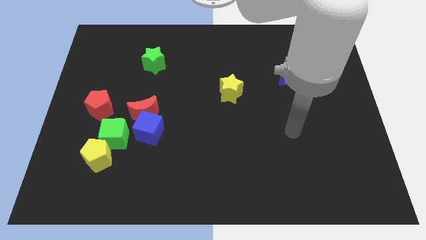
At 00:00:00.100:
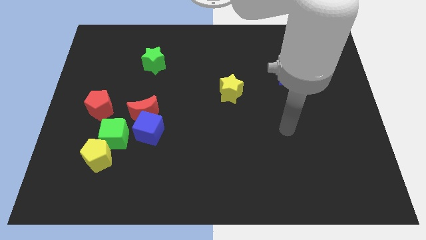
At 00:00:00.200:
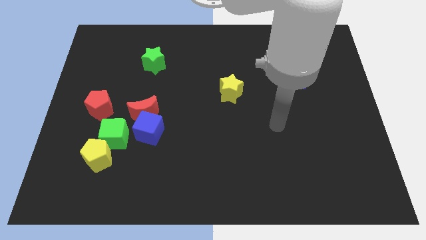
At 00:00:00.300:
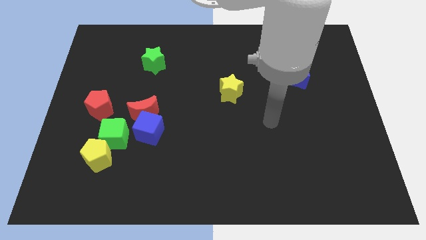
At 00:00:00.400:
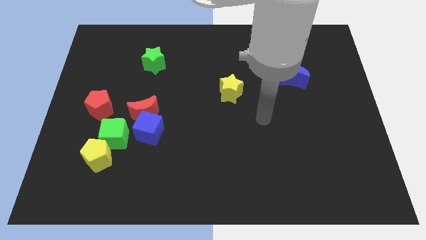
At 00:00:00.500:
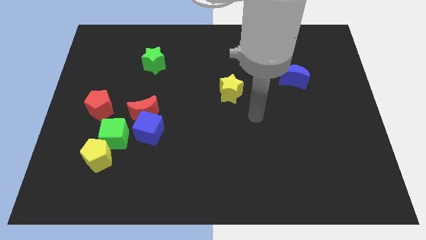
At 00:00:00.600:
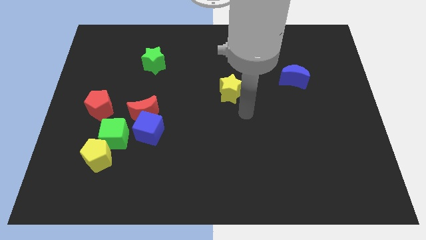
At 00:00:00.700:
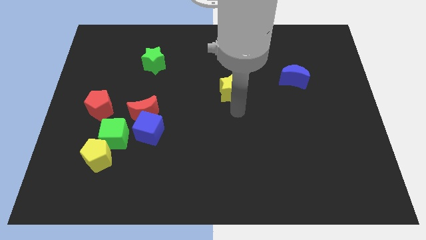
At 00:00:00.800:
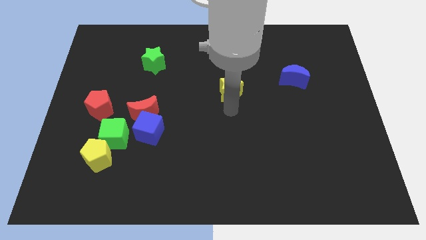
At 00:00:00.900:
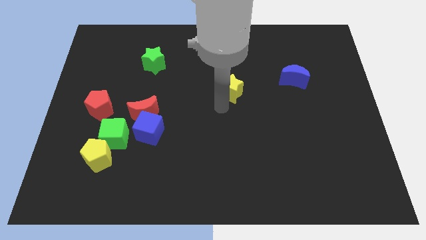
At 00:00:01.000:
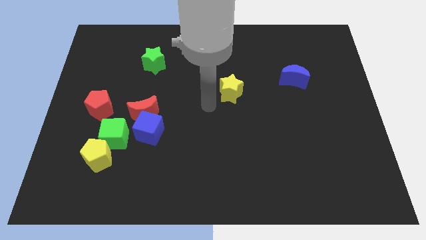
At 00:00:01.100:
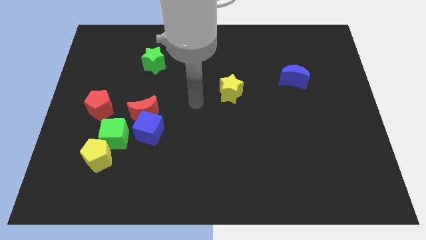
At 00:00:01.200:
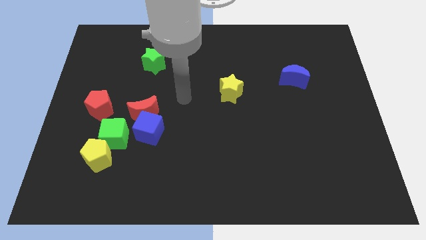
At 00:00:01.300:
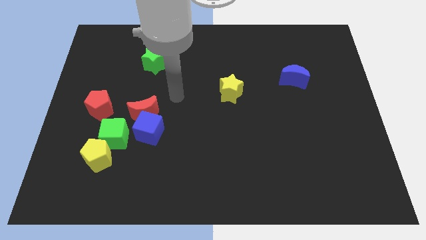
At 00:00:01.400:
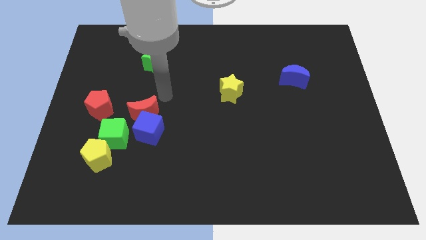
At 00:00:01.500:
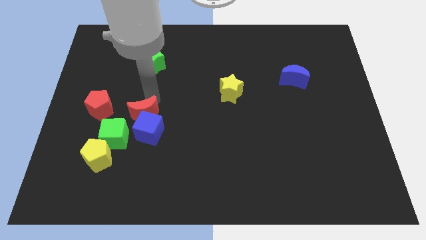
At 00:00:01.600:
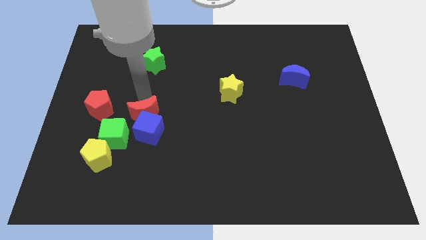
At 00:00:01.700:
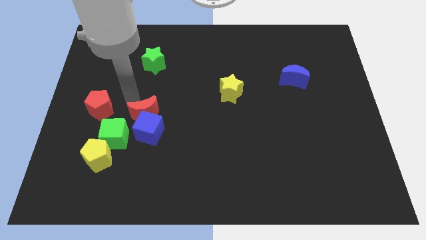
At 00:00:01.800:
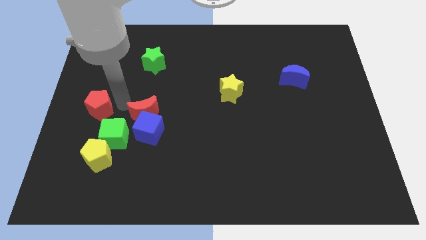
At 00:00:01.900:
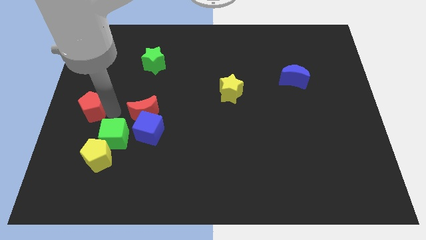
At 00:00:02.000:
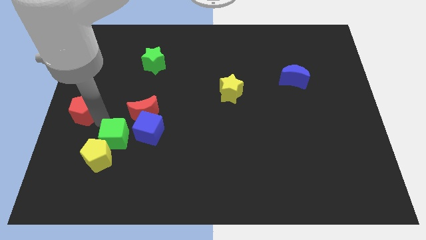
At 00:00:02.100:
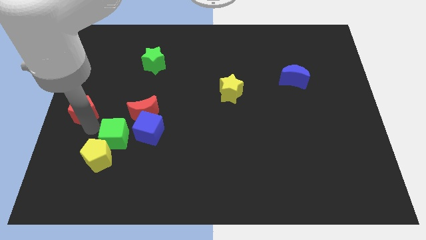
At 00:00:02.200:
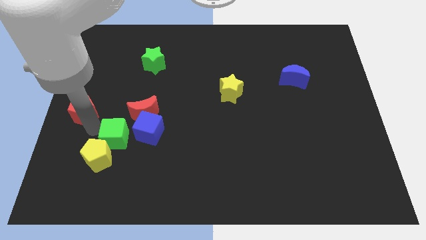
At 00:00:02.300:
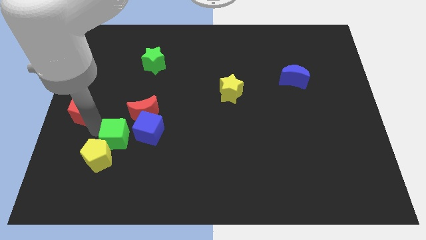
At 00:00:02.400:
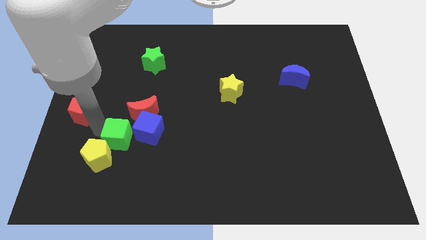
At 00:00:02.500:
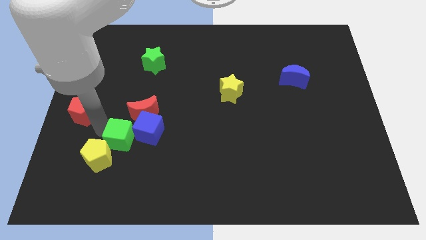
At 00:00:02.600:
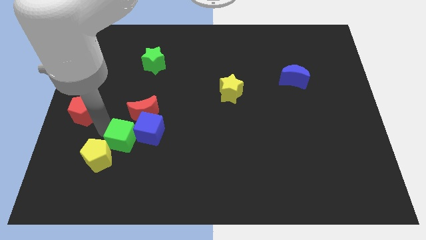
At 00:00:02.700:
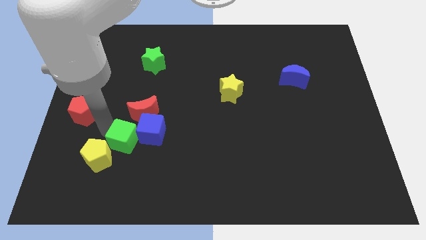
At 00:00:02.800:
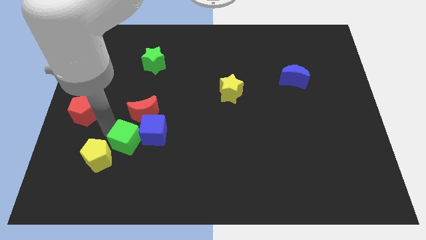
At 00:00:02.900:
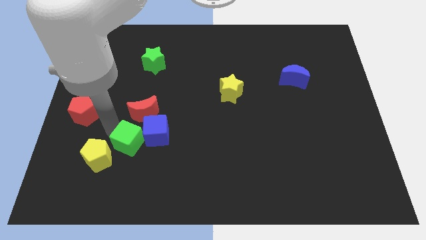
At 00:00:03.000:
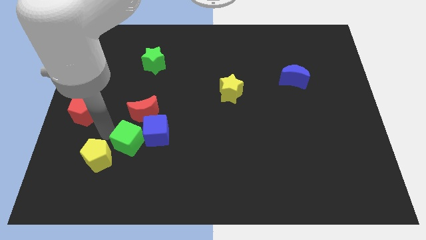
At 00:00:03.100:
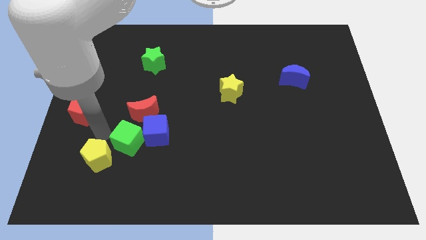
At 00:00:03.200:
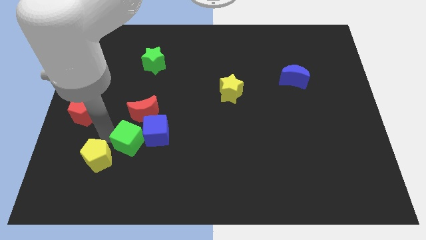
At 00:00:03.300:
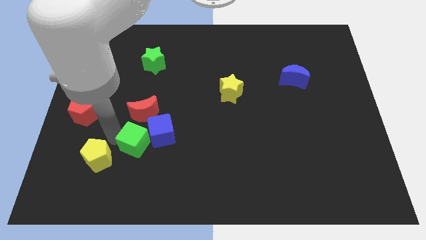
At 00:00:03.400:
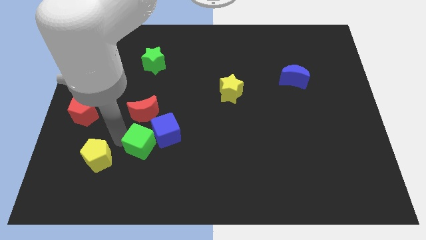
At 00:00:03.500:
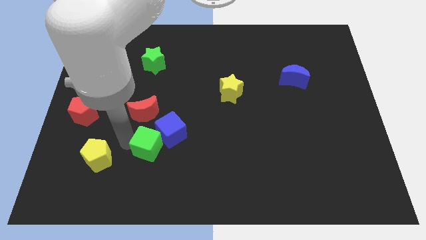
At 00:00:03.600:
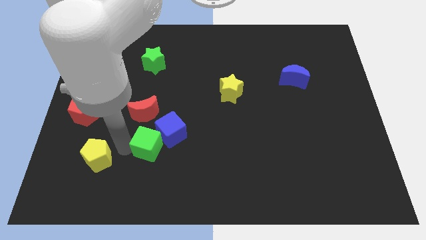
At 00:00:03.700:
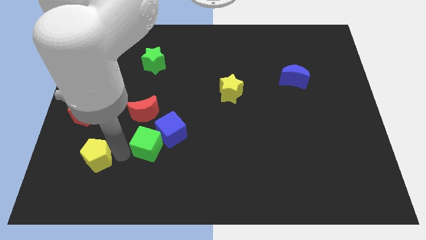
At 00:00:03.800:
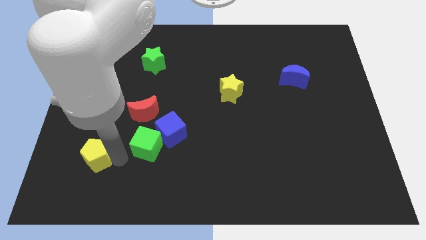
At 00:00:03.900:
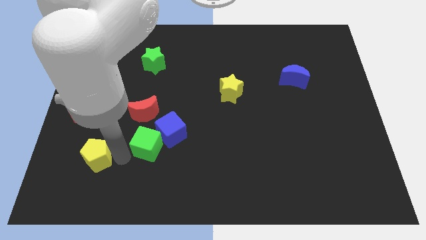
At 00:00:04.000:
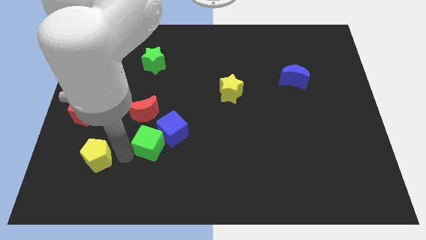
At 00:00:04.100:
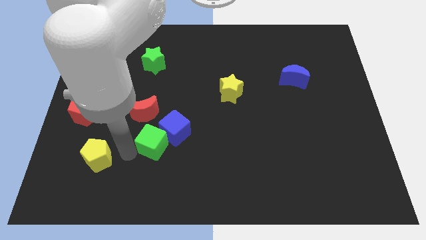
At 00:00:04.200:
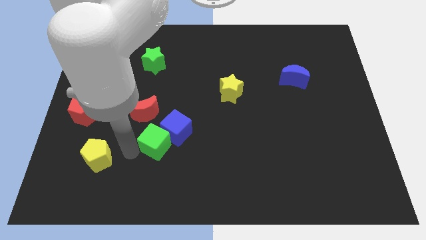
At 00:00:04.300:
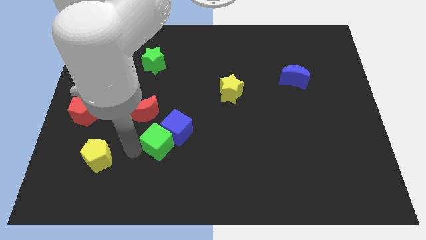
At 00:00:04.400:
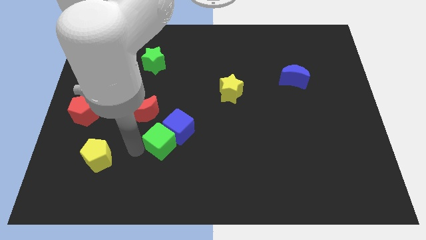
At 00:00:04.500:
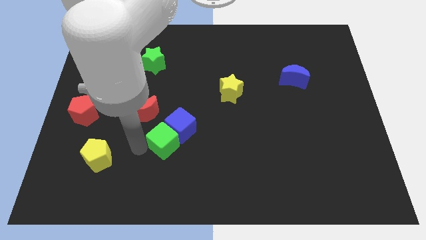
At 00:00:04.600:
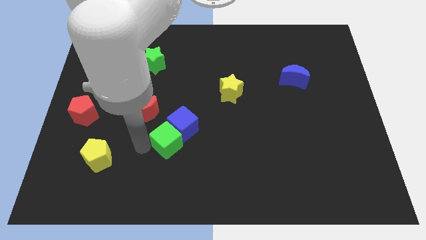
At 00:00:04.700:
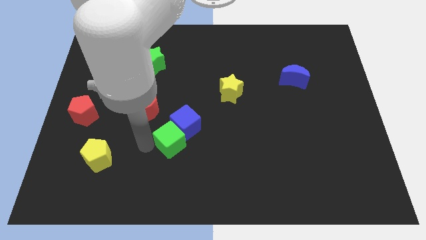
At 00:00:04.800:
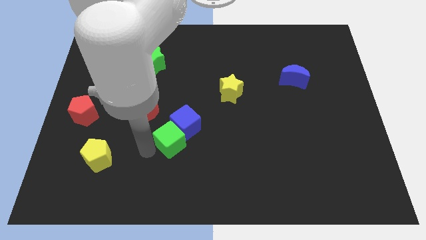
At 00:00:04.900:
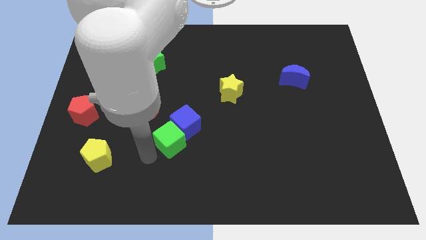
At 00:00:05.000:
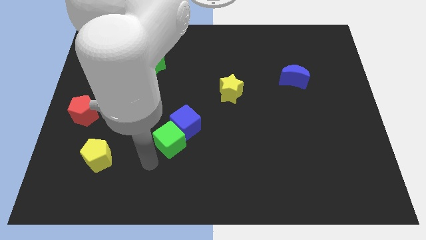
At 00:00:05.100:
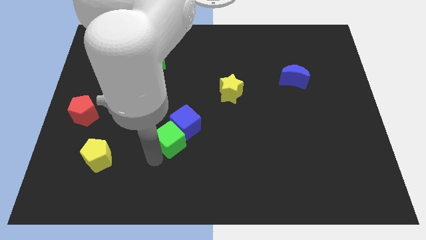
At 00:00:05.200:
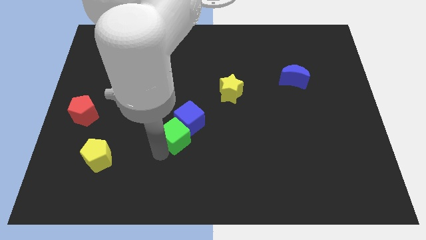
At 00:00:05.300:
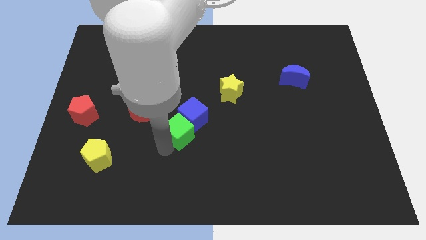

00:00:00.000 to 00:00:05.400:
push the green cube to the center of the board

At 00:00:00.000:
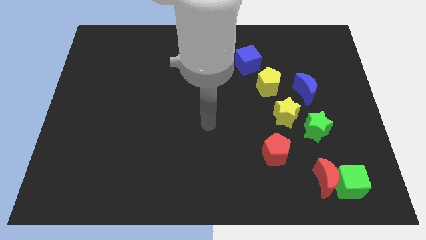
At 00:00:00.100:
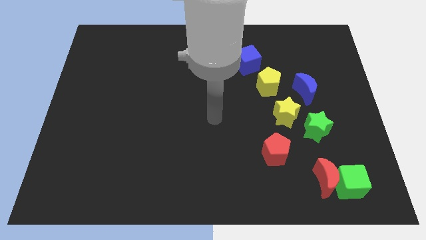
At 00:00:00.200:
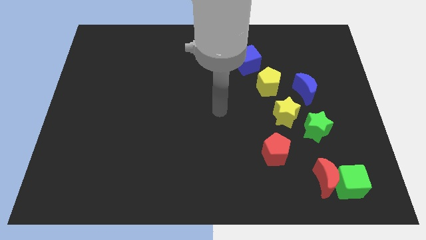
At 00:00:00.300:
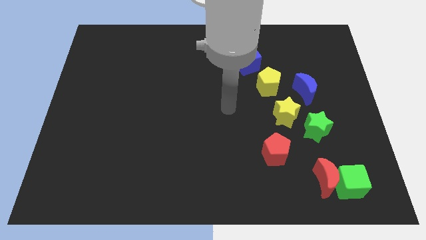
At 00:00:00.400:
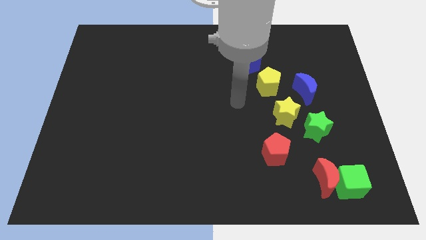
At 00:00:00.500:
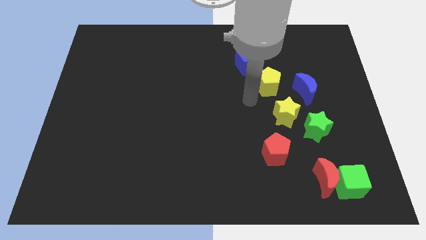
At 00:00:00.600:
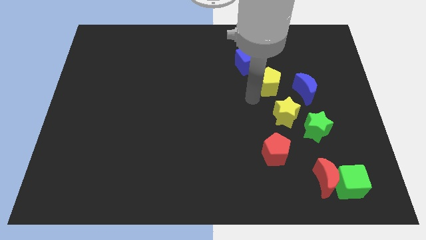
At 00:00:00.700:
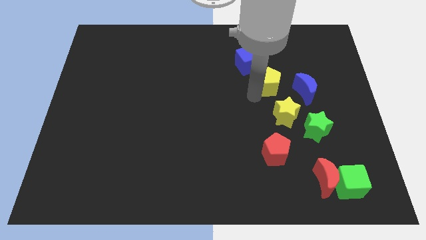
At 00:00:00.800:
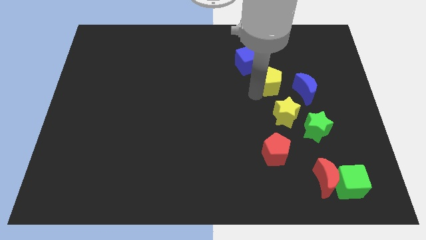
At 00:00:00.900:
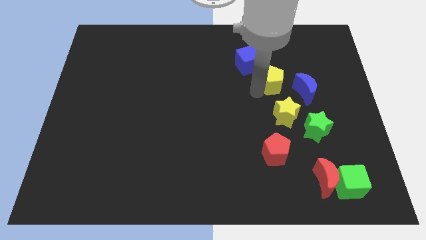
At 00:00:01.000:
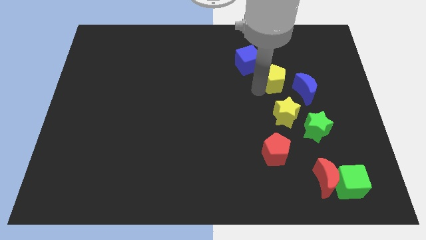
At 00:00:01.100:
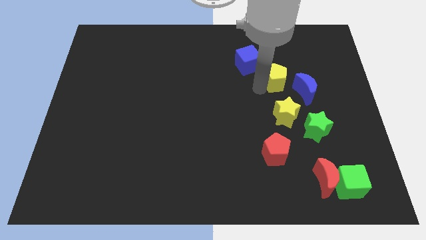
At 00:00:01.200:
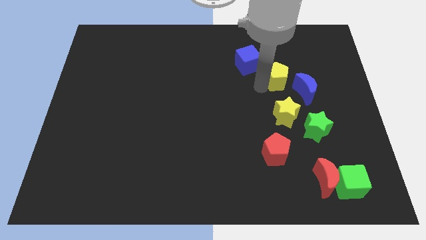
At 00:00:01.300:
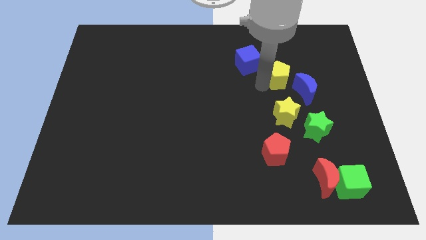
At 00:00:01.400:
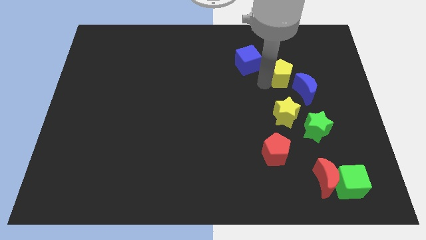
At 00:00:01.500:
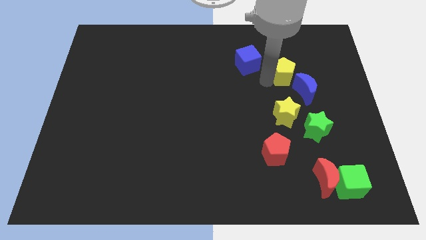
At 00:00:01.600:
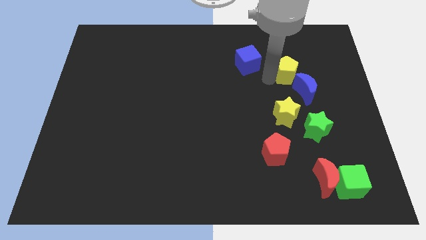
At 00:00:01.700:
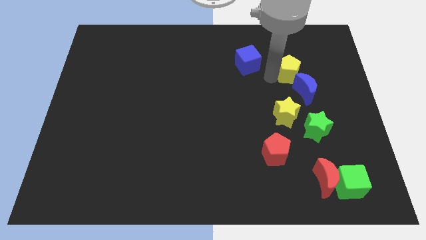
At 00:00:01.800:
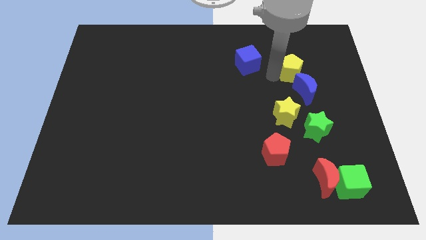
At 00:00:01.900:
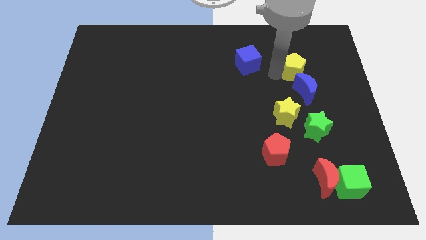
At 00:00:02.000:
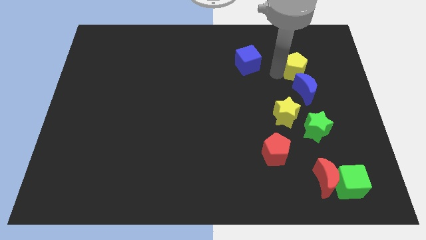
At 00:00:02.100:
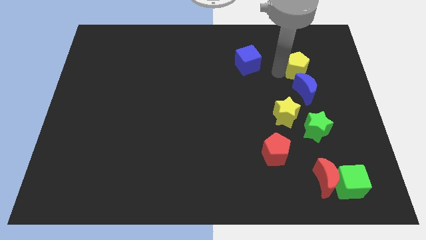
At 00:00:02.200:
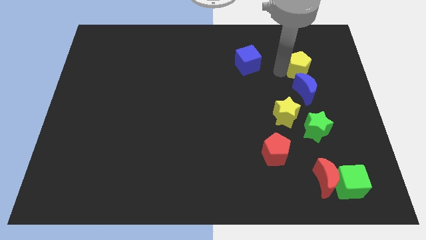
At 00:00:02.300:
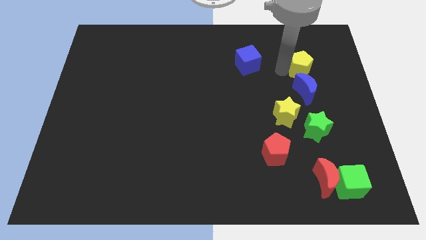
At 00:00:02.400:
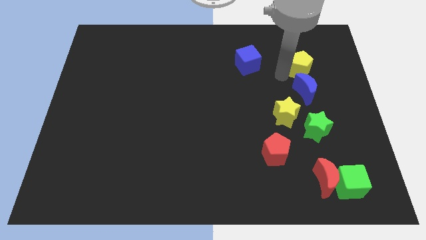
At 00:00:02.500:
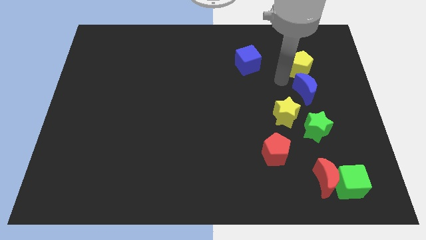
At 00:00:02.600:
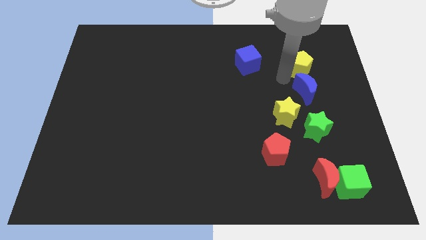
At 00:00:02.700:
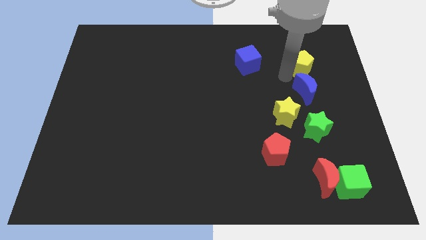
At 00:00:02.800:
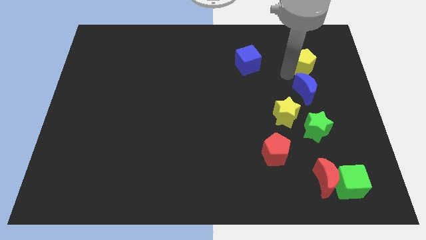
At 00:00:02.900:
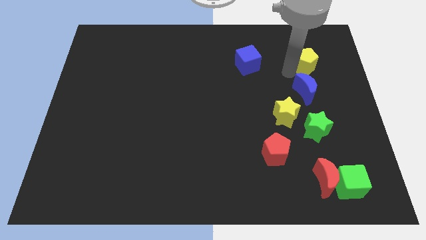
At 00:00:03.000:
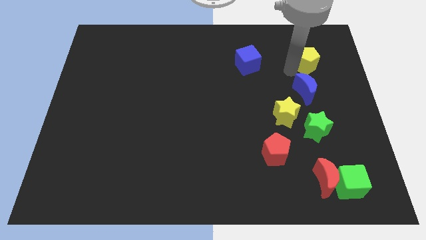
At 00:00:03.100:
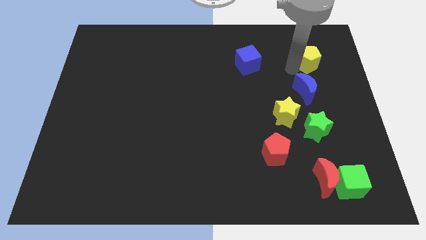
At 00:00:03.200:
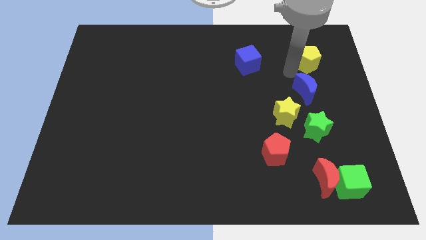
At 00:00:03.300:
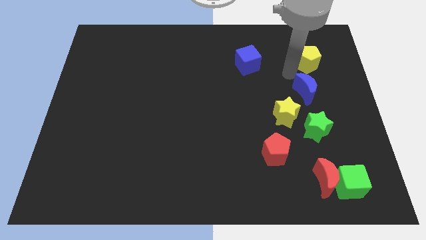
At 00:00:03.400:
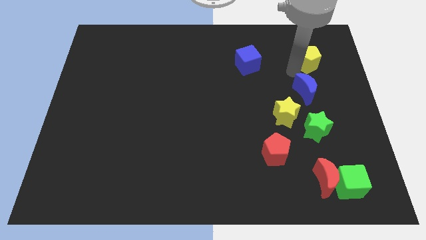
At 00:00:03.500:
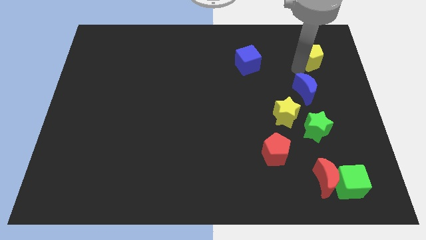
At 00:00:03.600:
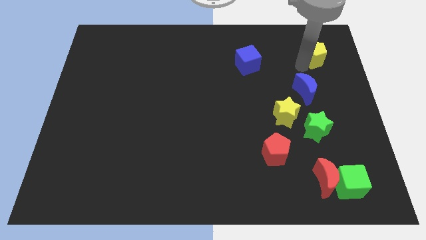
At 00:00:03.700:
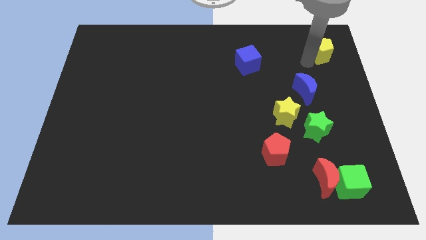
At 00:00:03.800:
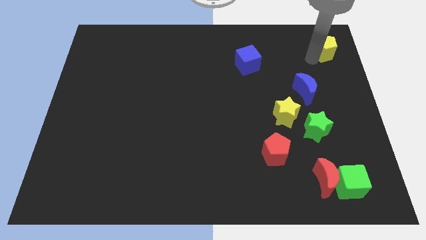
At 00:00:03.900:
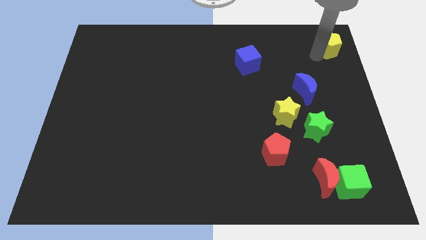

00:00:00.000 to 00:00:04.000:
move the yellow pentagon to the top right of the board
